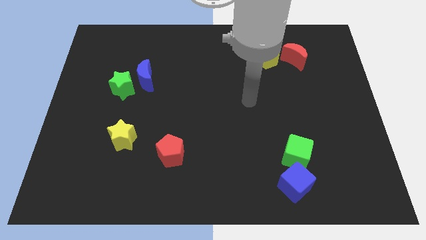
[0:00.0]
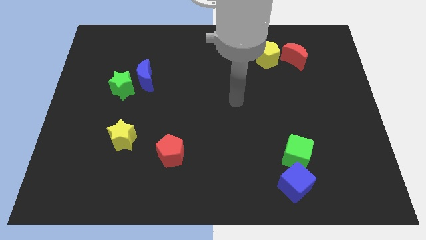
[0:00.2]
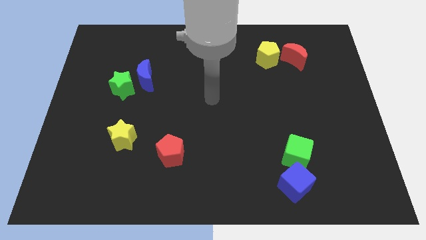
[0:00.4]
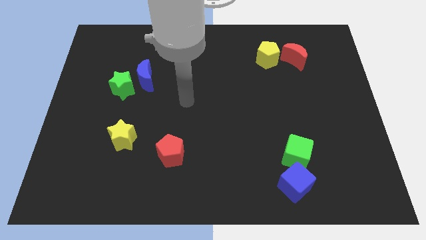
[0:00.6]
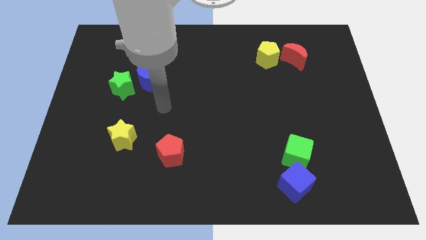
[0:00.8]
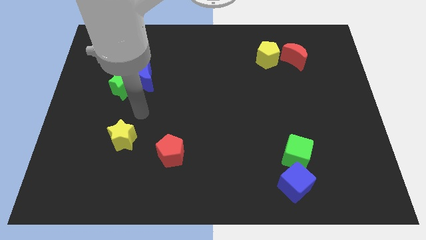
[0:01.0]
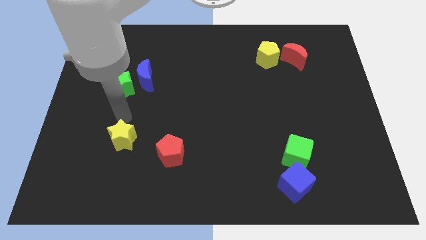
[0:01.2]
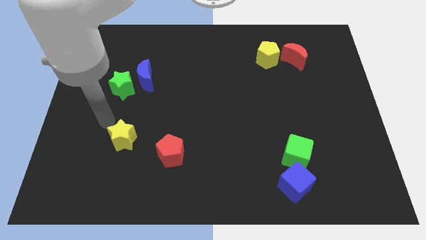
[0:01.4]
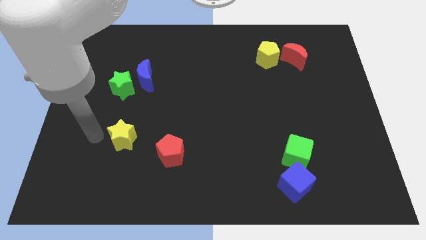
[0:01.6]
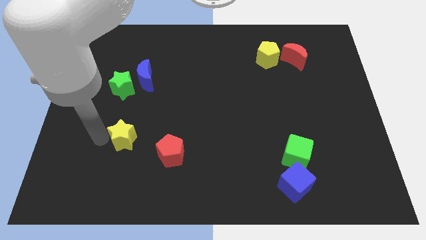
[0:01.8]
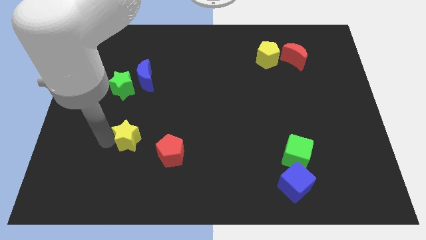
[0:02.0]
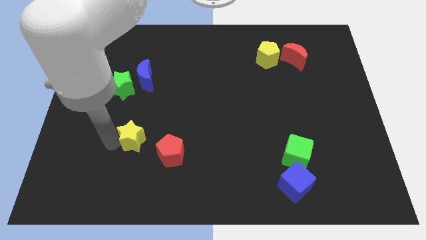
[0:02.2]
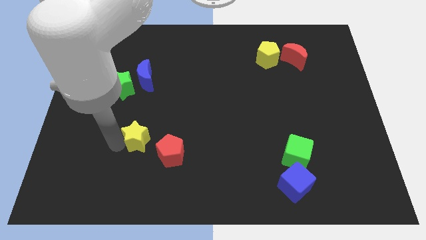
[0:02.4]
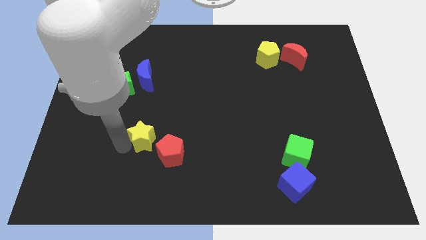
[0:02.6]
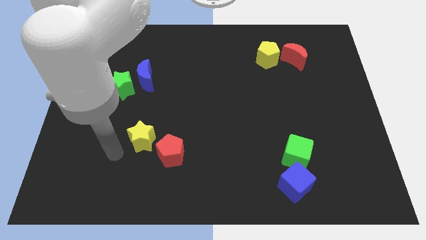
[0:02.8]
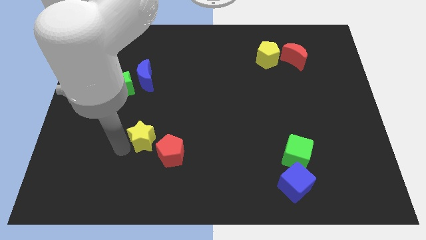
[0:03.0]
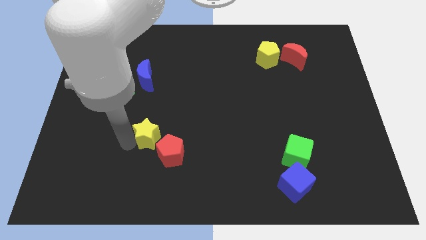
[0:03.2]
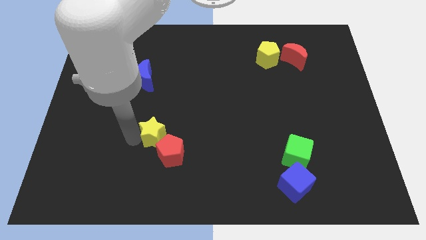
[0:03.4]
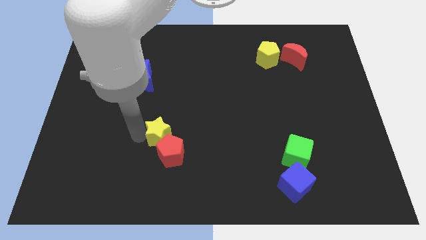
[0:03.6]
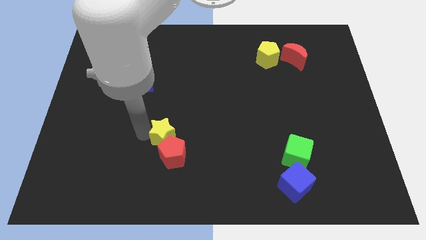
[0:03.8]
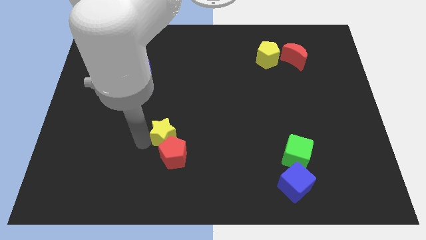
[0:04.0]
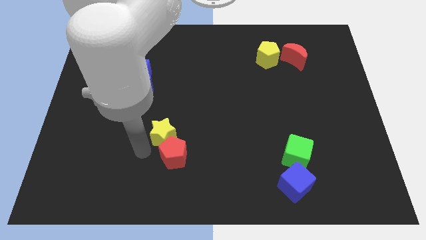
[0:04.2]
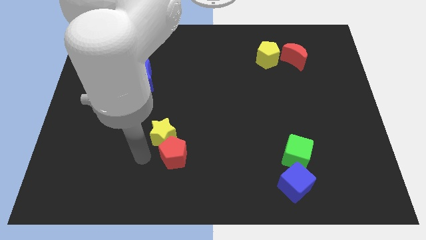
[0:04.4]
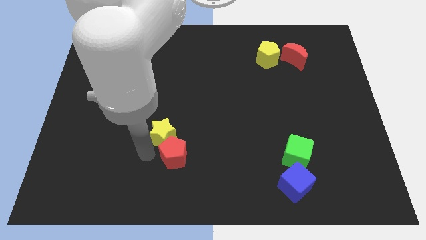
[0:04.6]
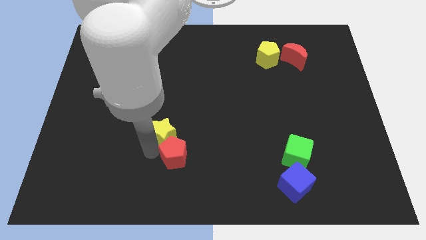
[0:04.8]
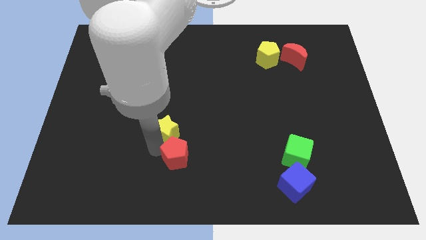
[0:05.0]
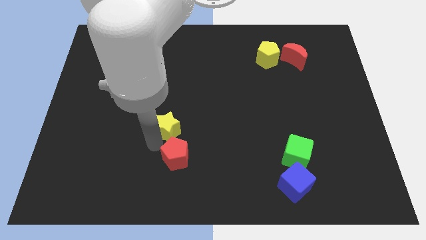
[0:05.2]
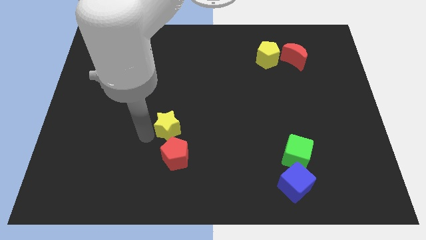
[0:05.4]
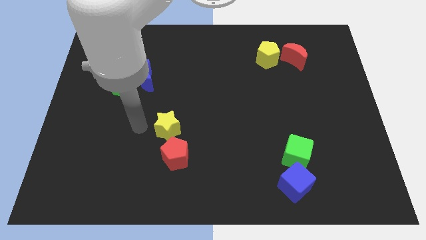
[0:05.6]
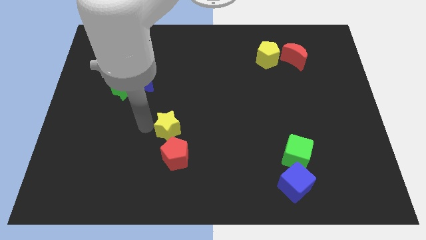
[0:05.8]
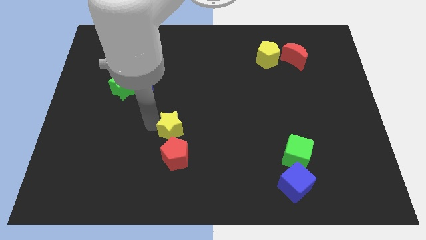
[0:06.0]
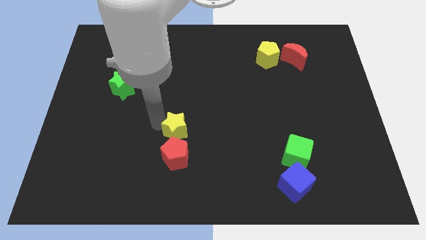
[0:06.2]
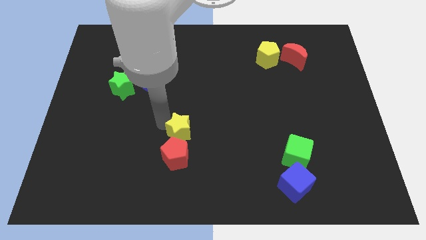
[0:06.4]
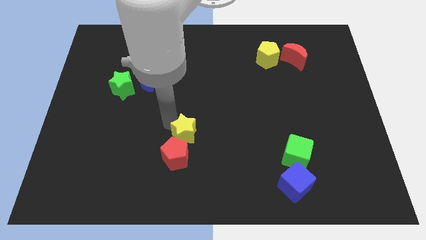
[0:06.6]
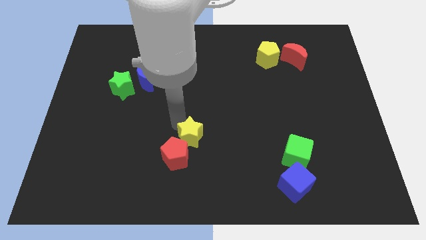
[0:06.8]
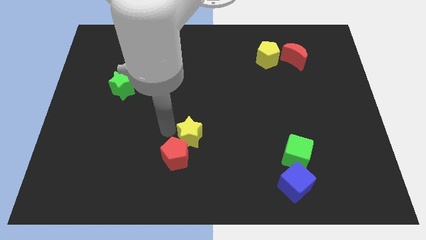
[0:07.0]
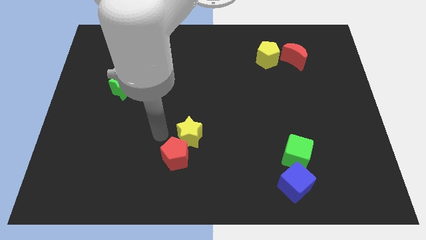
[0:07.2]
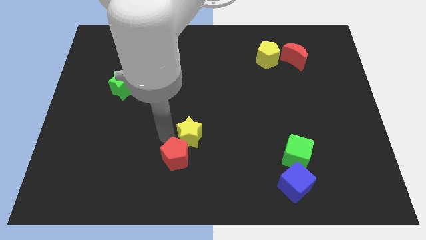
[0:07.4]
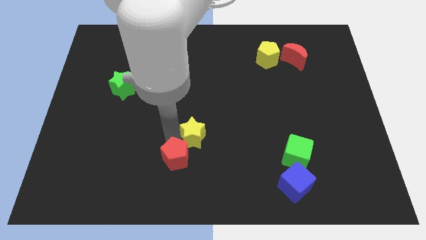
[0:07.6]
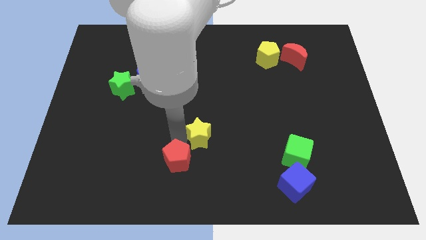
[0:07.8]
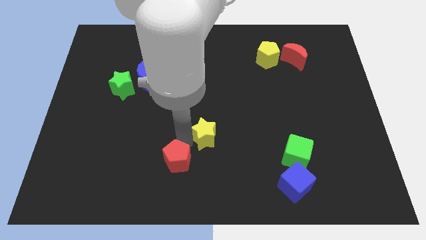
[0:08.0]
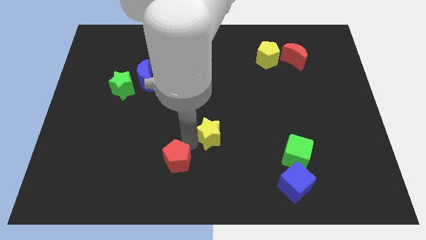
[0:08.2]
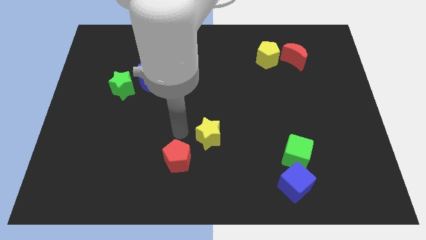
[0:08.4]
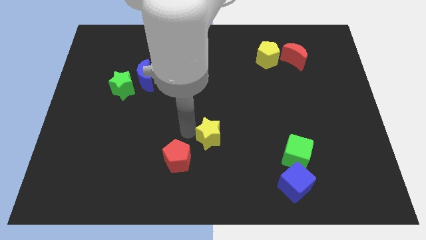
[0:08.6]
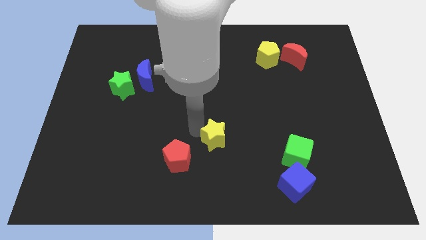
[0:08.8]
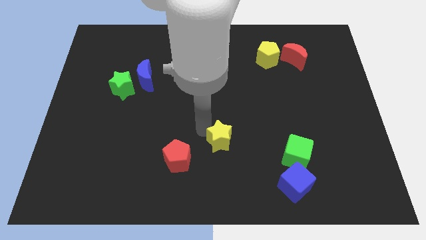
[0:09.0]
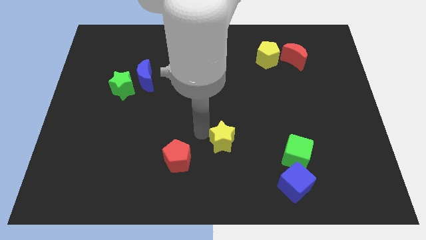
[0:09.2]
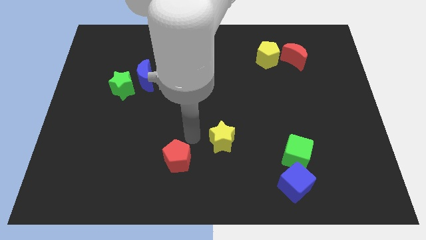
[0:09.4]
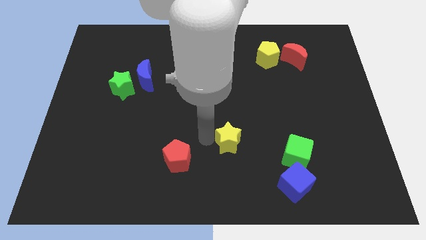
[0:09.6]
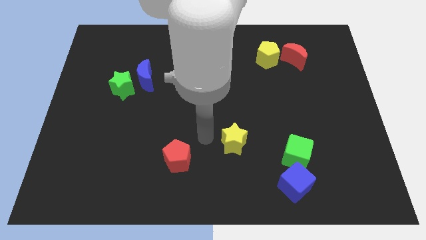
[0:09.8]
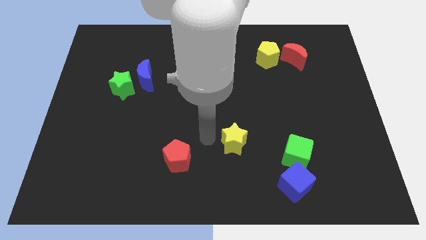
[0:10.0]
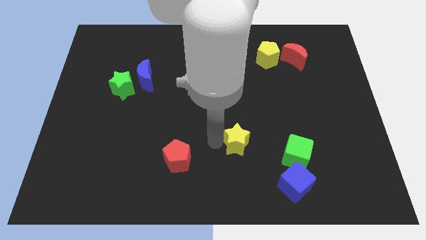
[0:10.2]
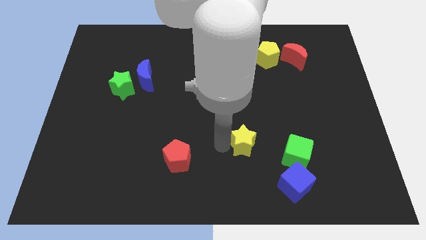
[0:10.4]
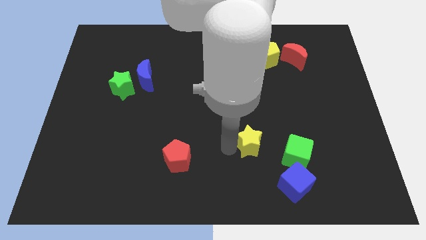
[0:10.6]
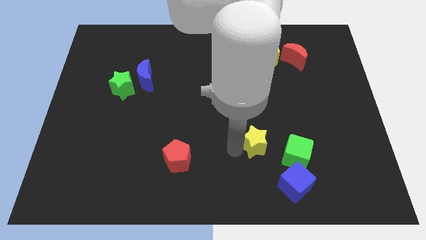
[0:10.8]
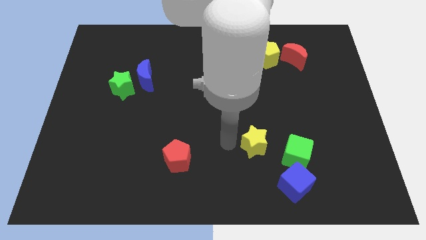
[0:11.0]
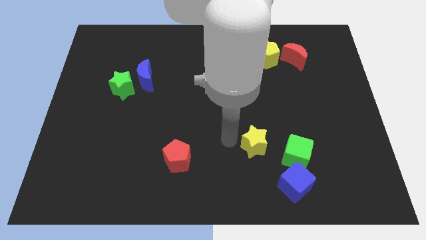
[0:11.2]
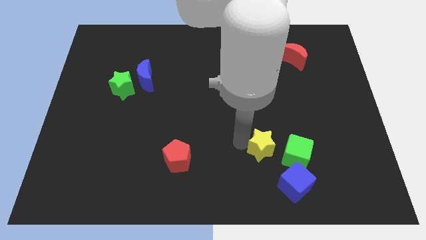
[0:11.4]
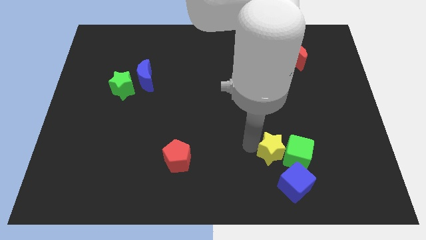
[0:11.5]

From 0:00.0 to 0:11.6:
move the yellow star to the green cube

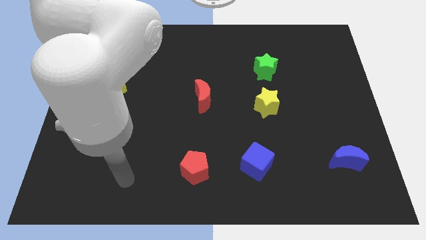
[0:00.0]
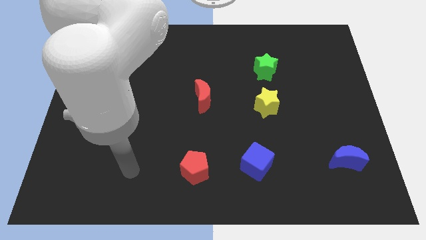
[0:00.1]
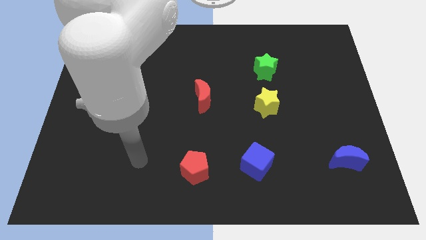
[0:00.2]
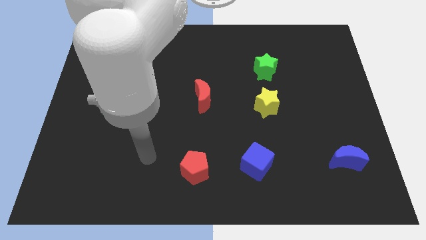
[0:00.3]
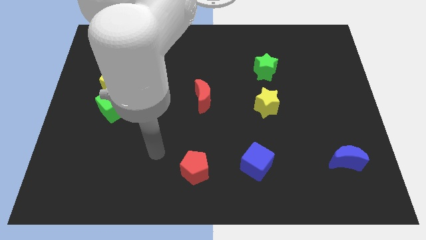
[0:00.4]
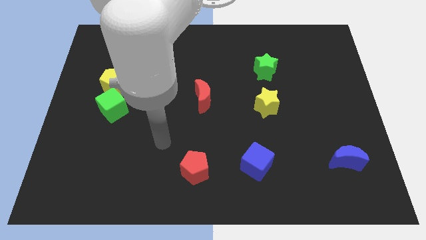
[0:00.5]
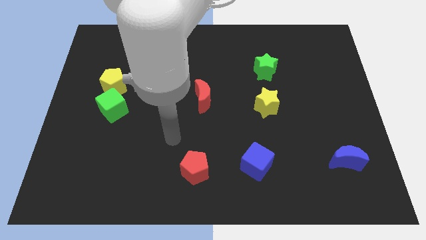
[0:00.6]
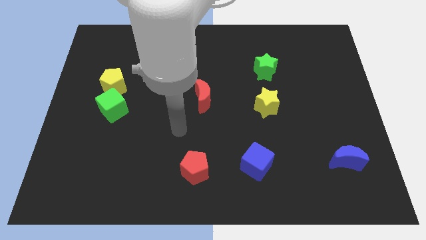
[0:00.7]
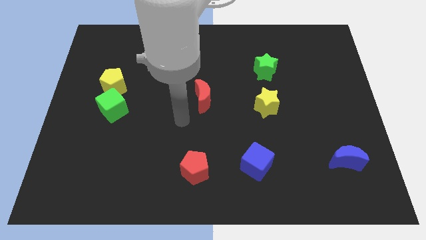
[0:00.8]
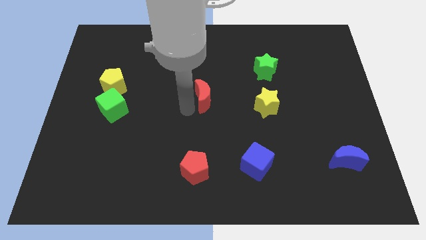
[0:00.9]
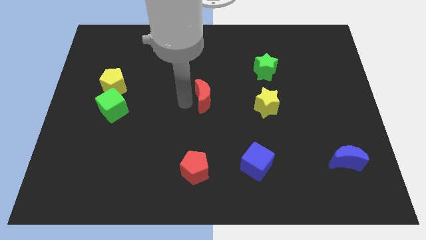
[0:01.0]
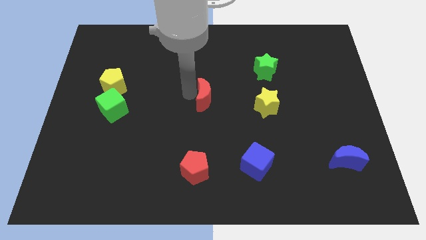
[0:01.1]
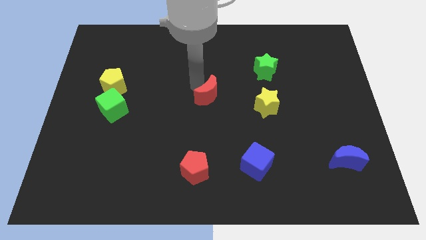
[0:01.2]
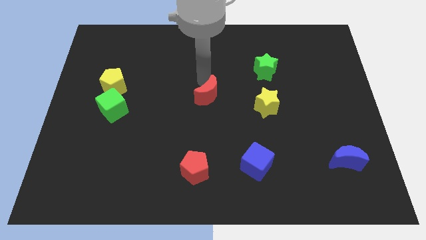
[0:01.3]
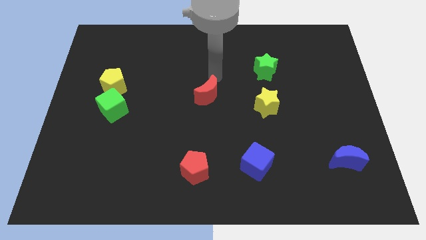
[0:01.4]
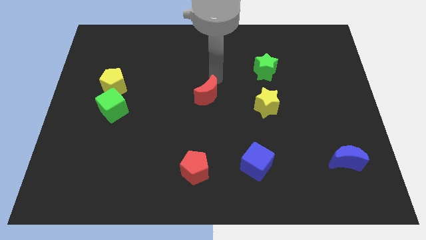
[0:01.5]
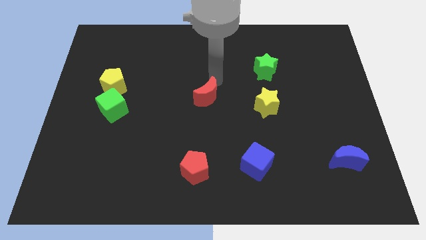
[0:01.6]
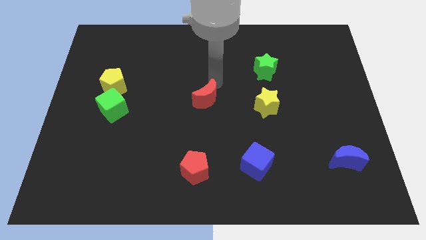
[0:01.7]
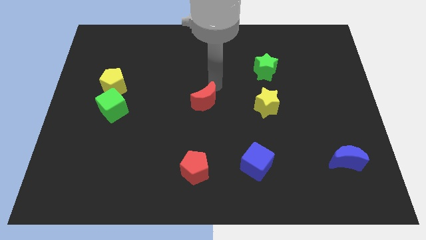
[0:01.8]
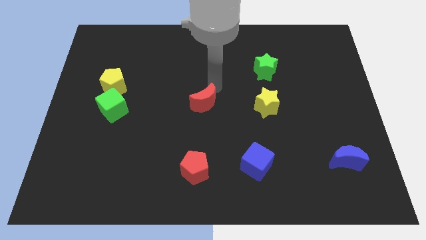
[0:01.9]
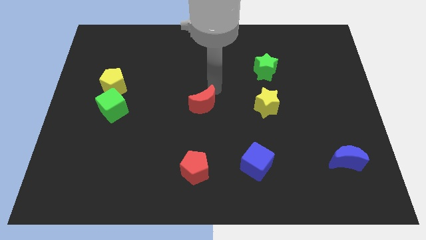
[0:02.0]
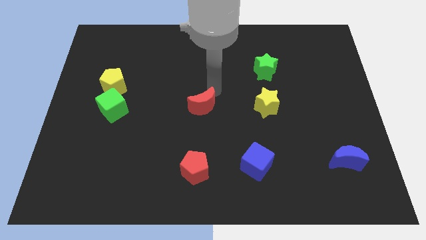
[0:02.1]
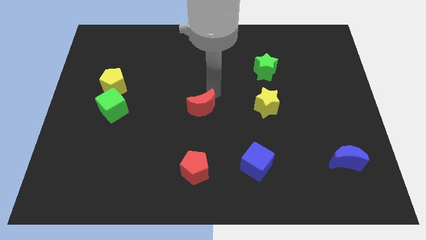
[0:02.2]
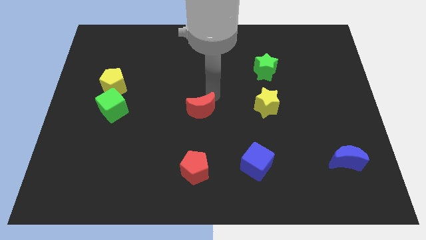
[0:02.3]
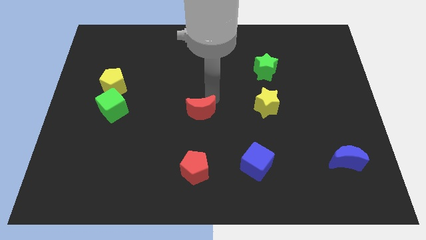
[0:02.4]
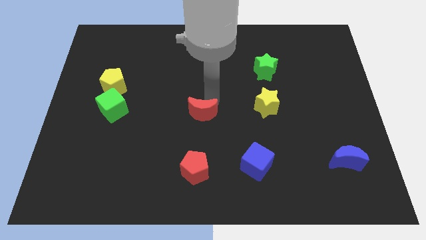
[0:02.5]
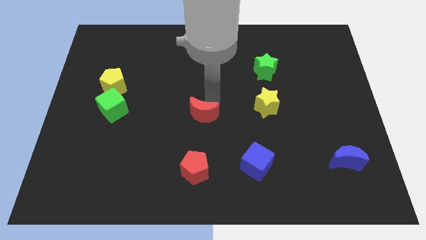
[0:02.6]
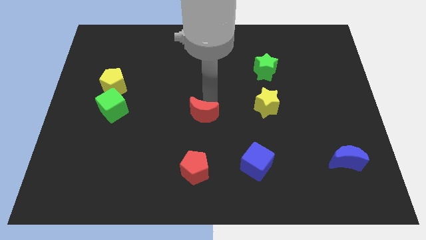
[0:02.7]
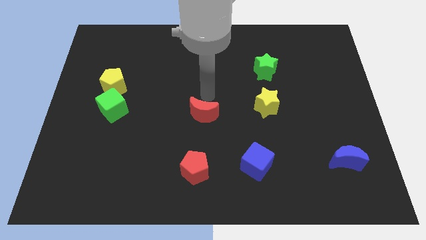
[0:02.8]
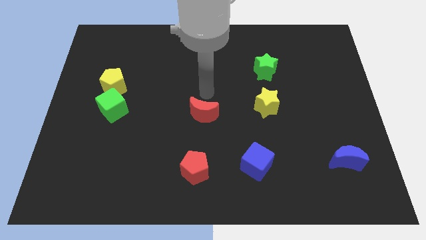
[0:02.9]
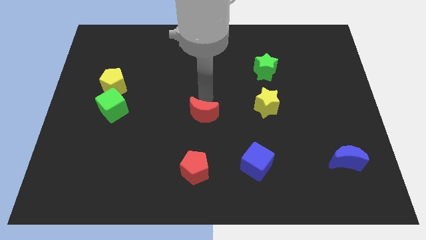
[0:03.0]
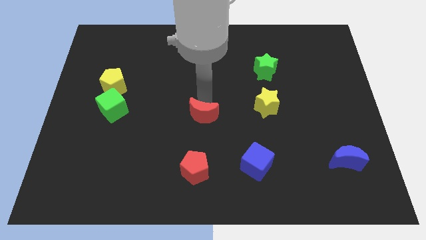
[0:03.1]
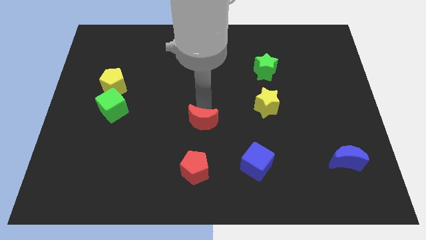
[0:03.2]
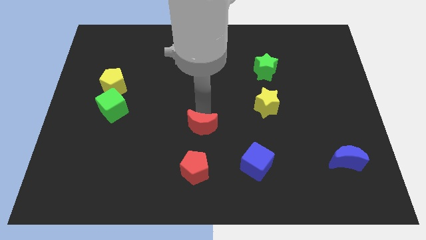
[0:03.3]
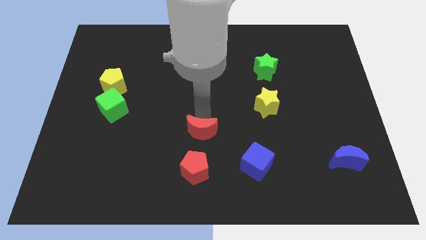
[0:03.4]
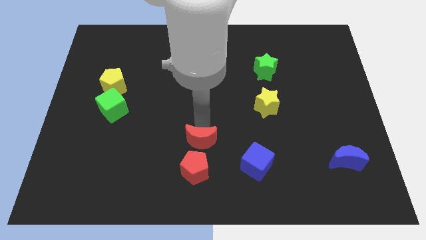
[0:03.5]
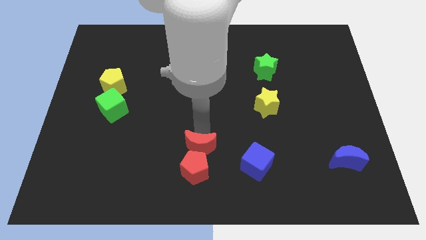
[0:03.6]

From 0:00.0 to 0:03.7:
put the red moon towards the red pentagon
